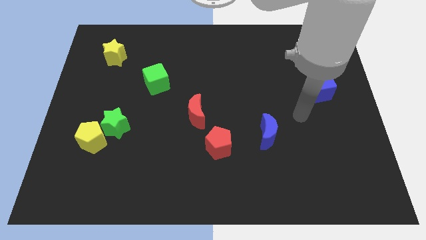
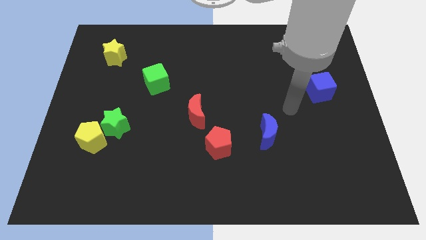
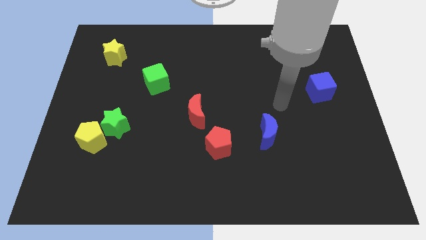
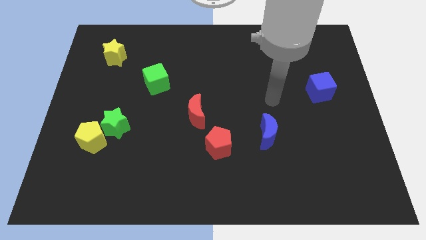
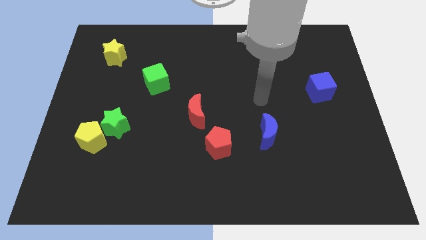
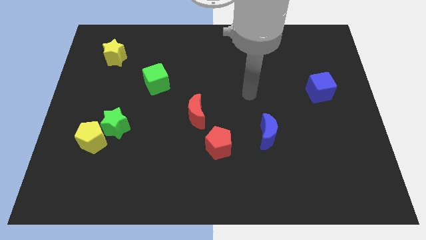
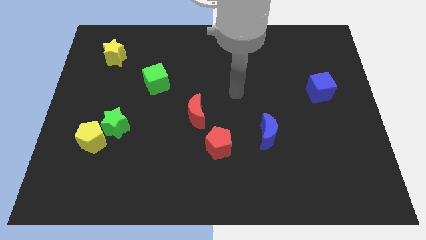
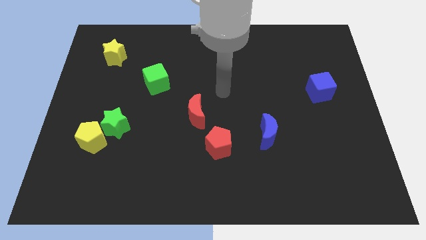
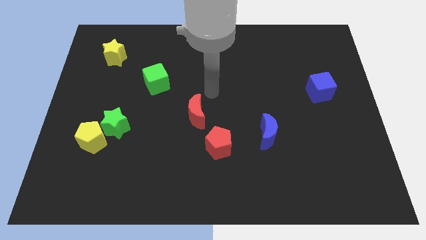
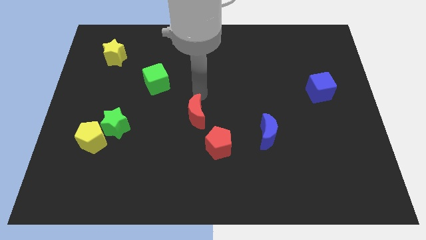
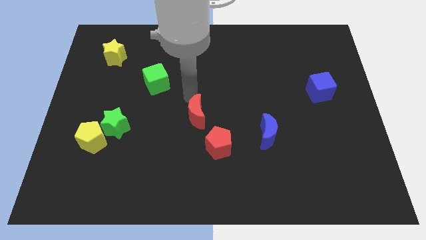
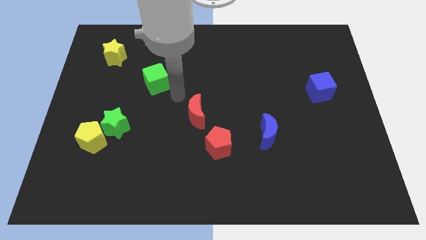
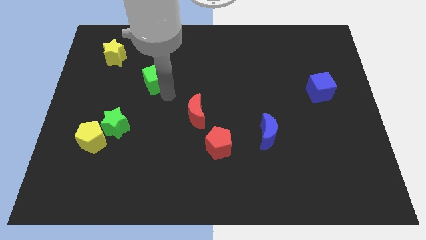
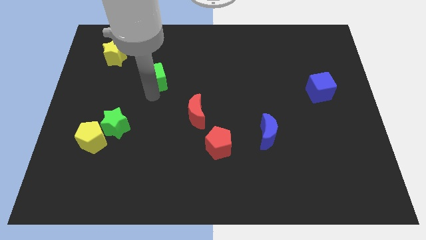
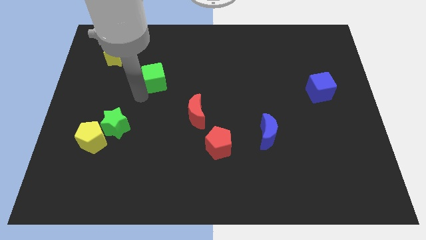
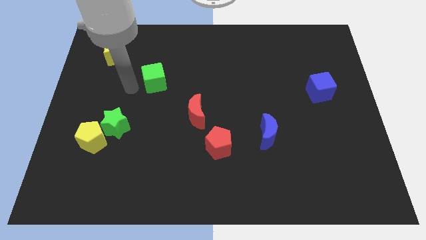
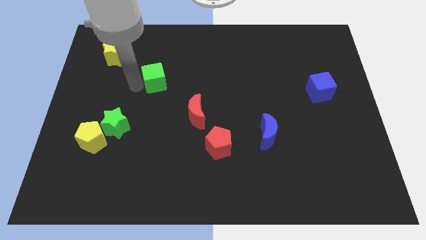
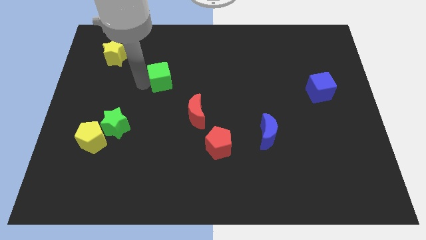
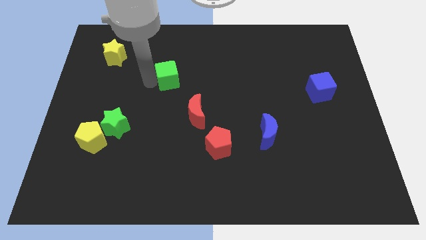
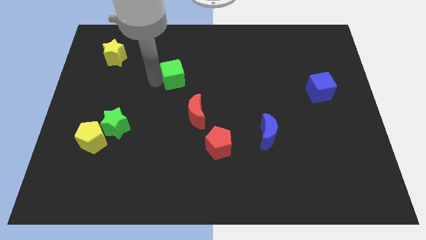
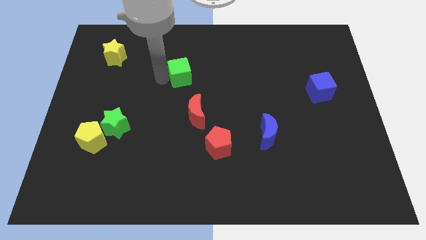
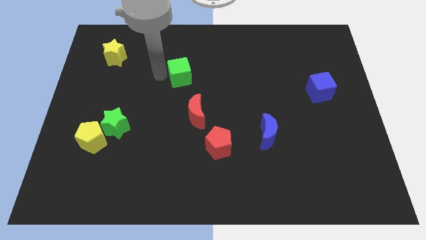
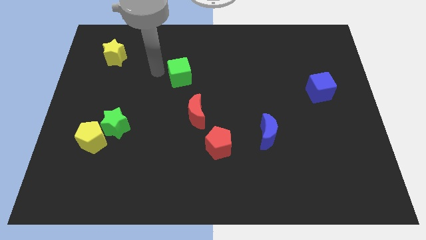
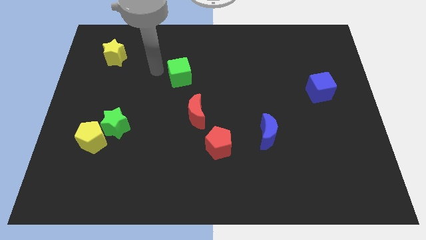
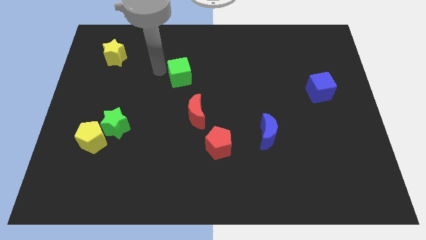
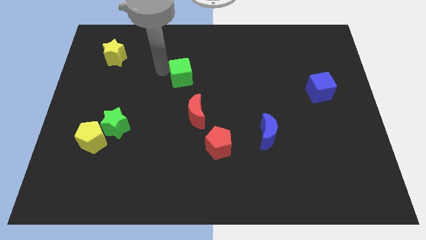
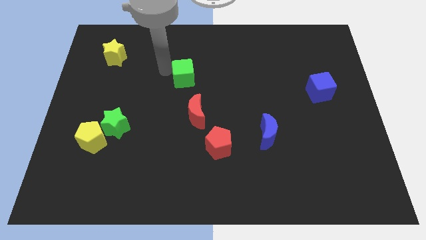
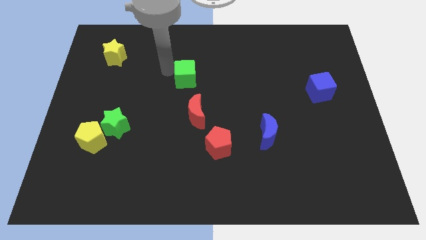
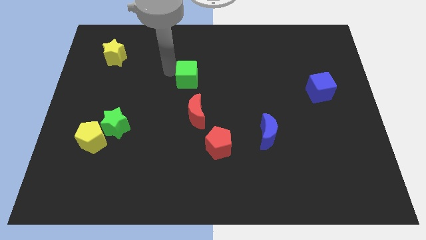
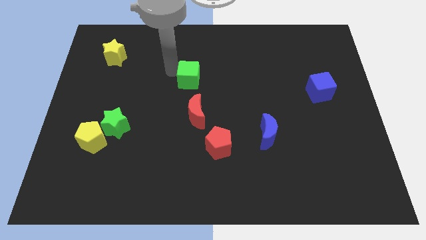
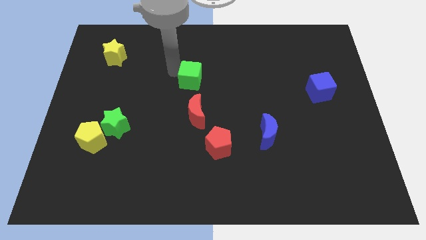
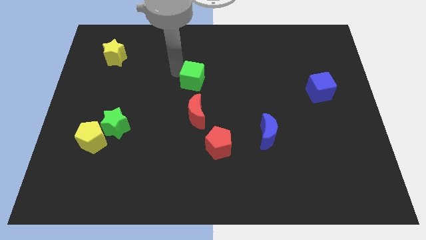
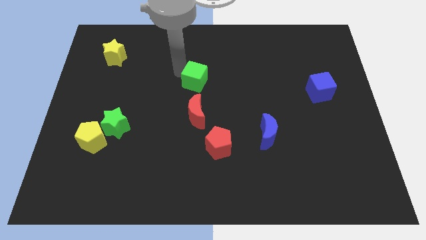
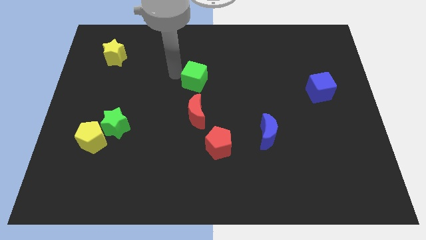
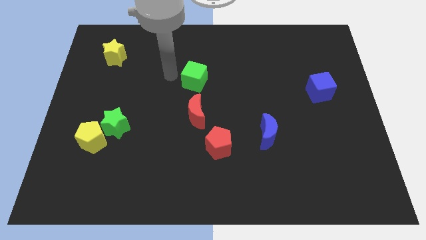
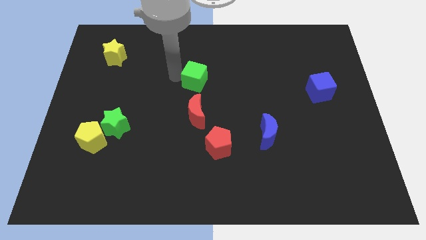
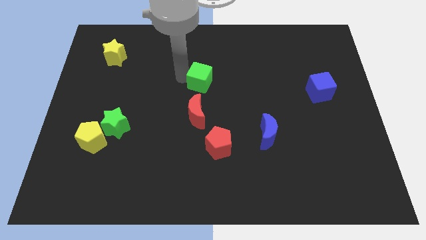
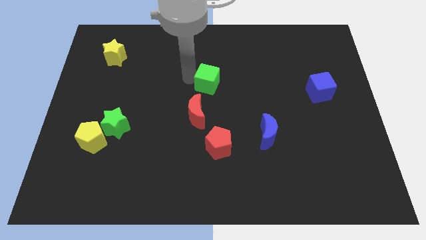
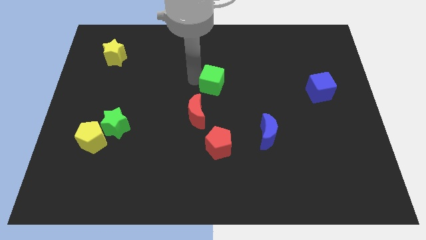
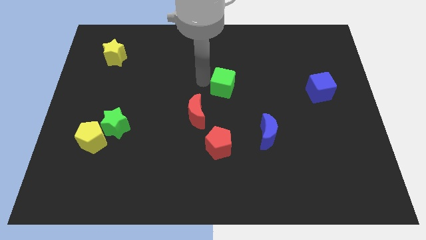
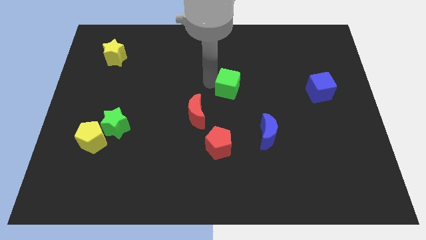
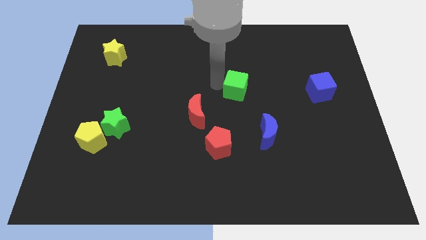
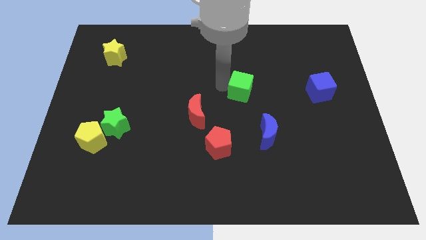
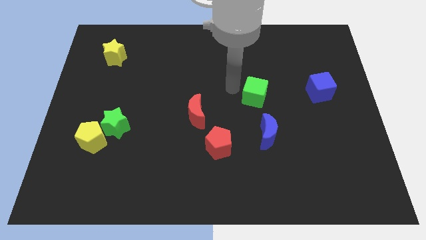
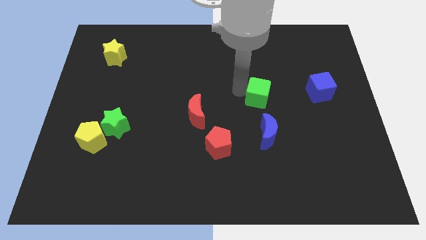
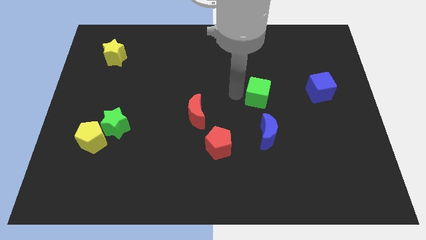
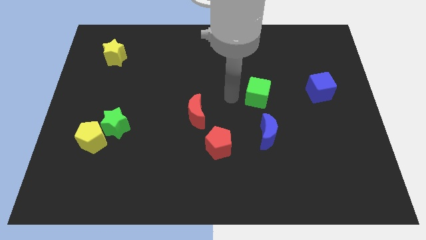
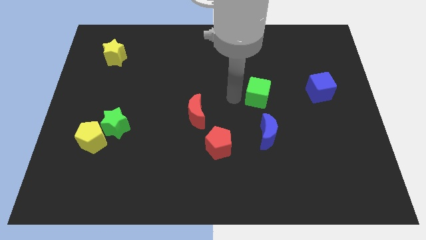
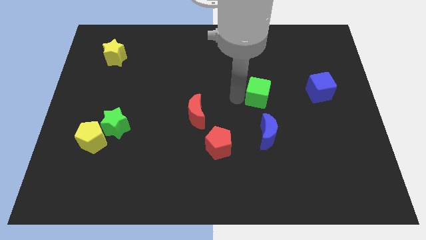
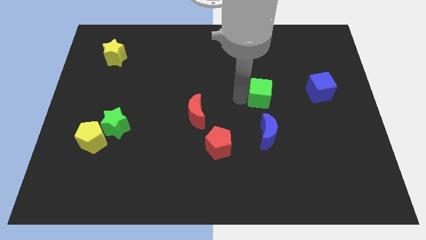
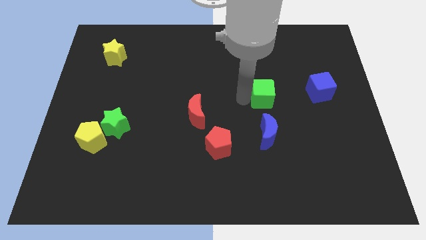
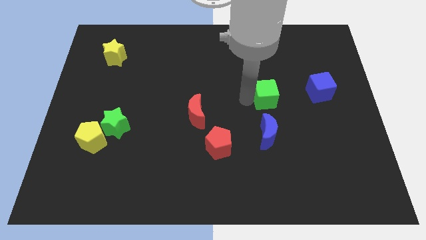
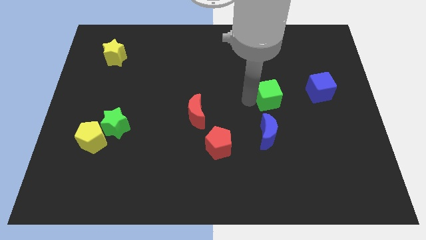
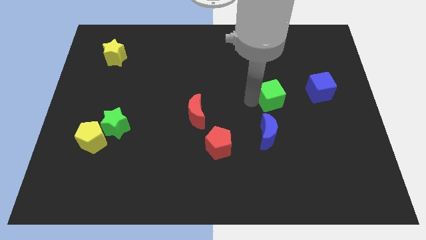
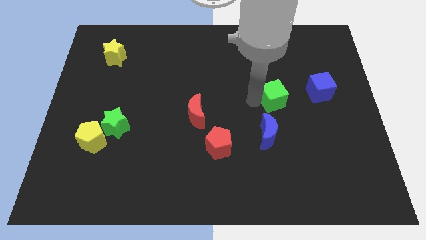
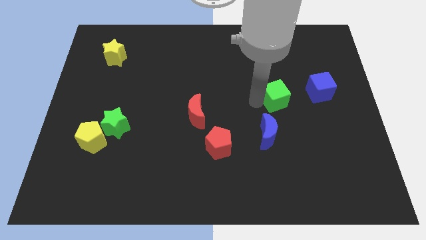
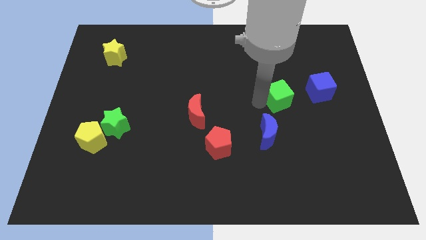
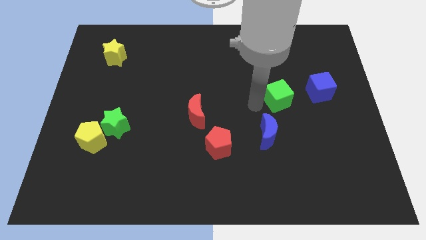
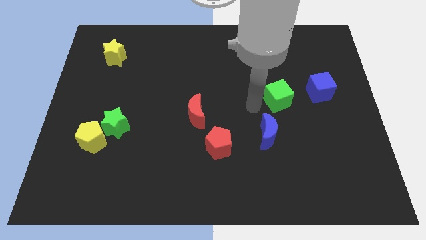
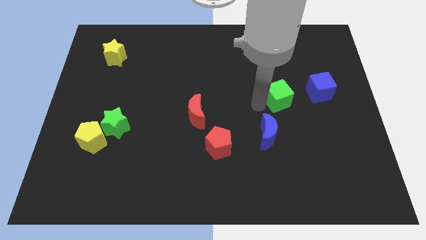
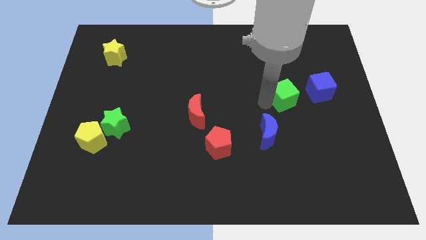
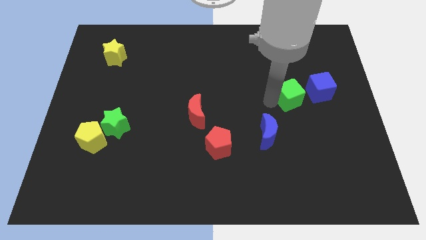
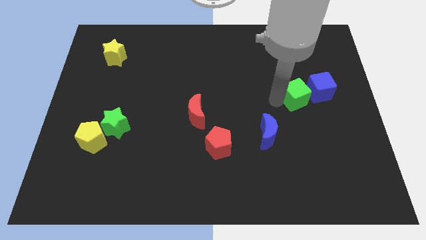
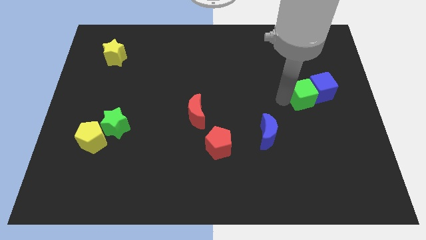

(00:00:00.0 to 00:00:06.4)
put the green cube next to the blue cube

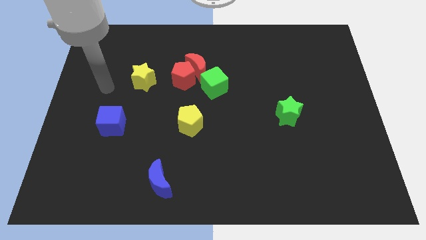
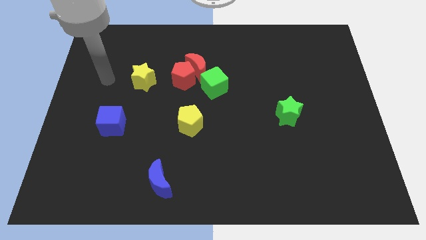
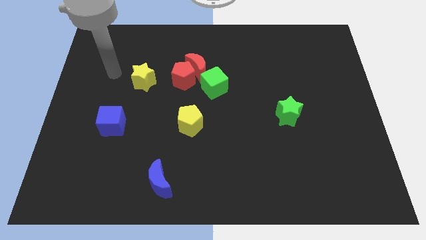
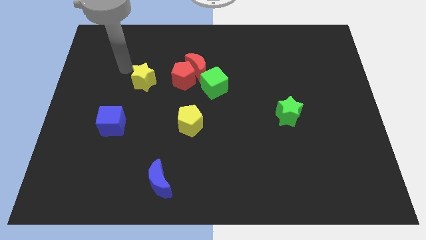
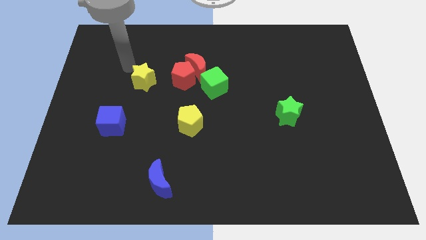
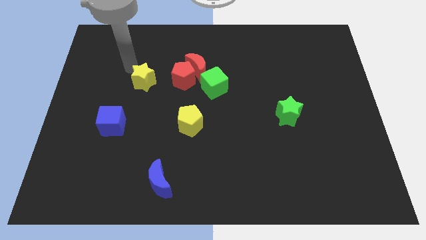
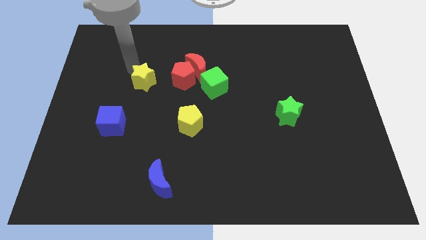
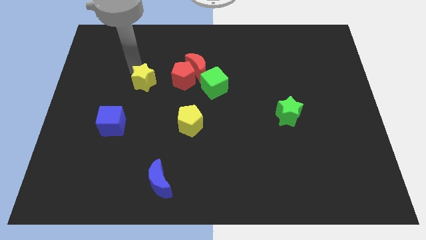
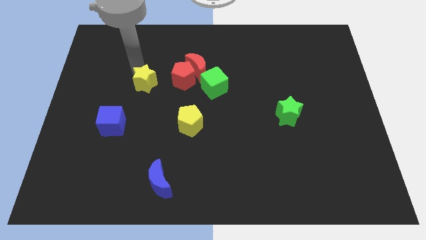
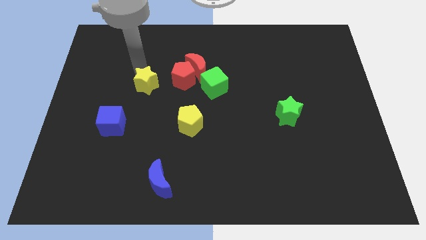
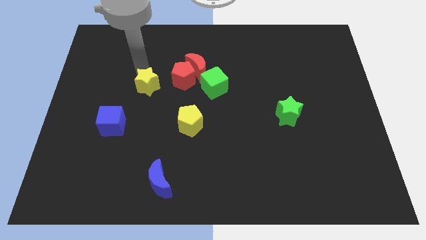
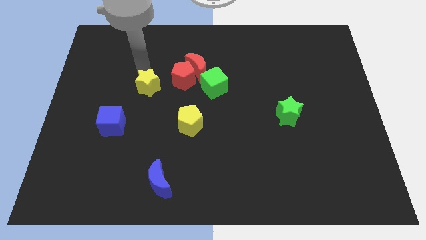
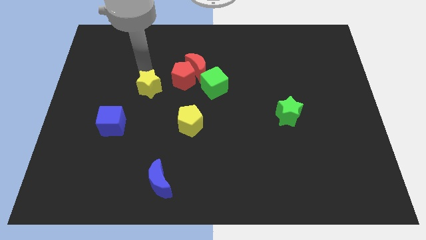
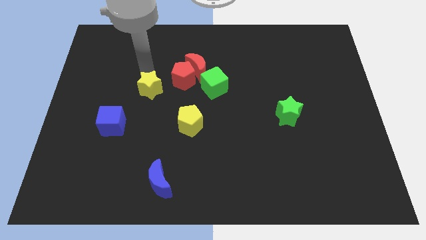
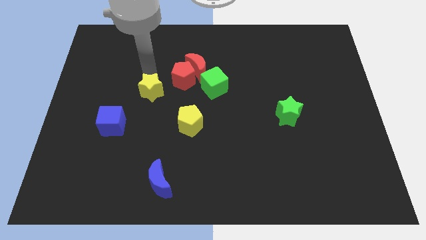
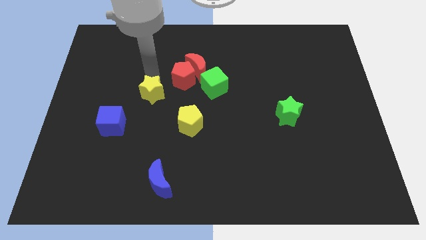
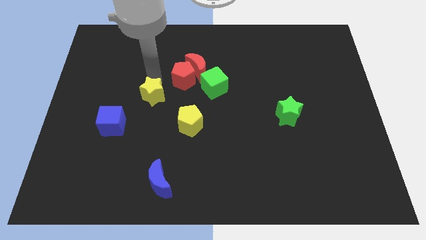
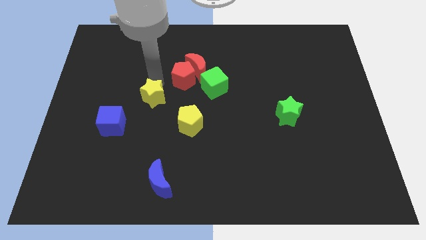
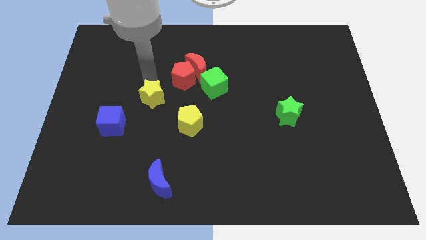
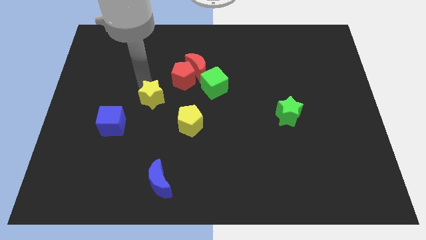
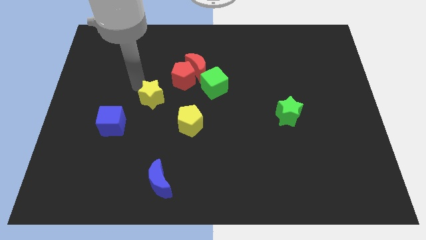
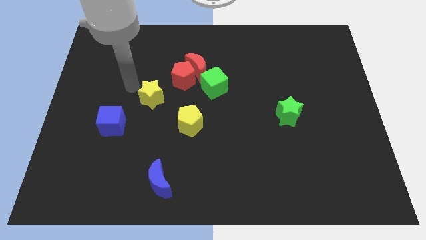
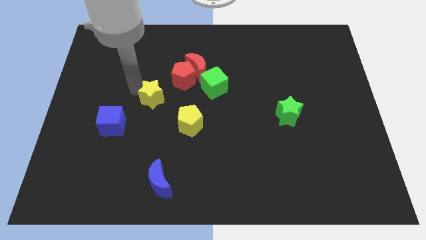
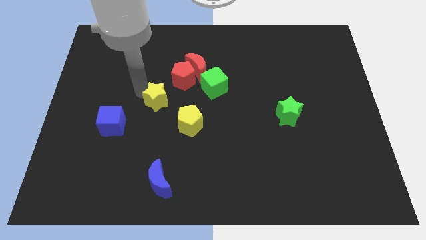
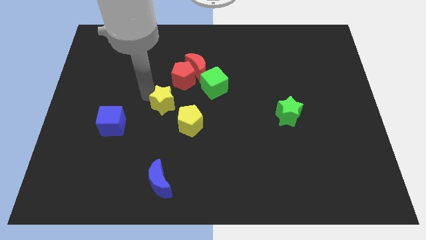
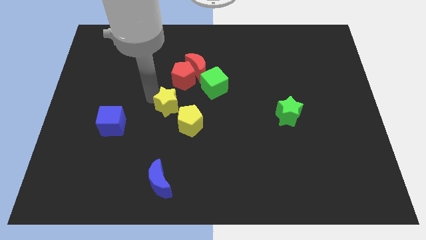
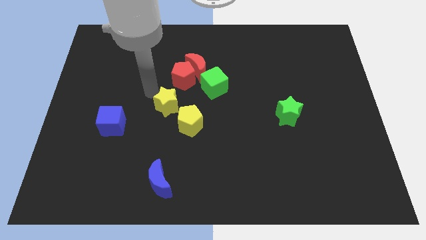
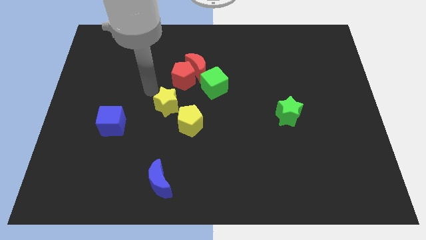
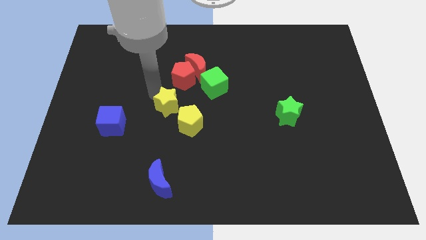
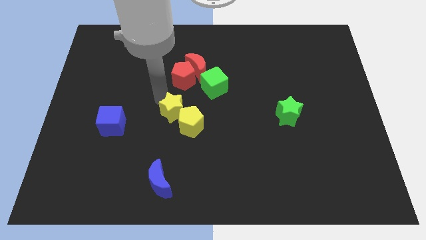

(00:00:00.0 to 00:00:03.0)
slide the yellow star to the yellow pentagon
